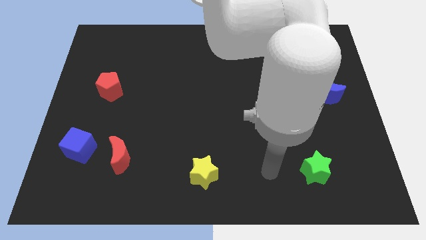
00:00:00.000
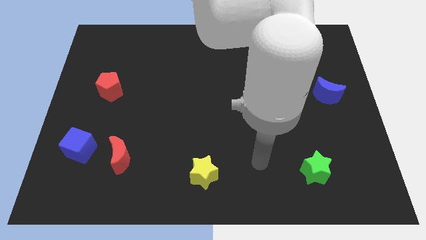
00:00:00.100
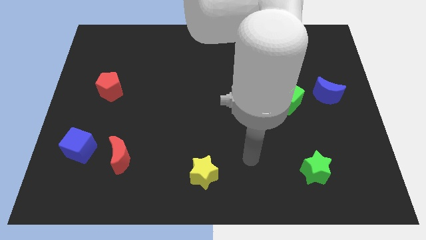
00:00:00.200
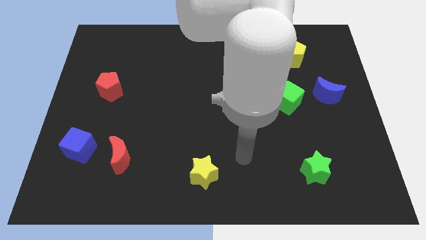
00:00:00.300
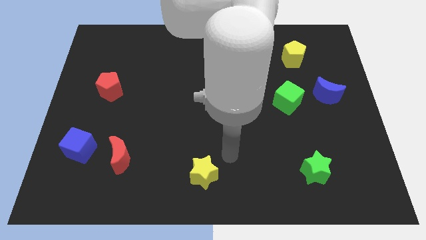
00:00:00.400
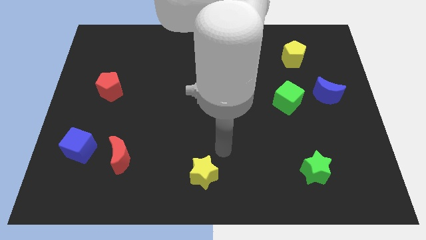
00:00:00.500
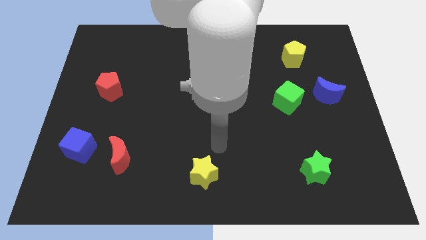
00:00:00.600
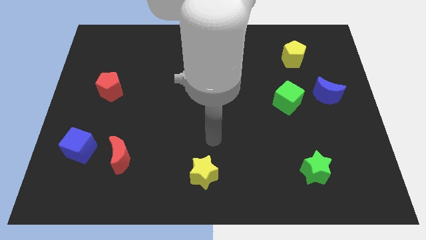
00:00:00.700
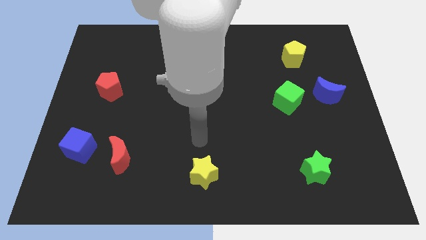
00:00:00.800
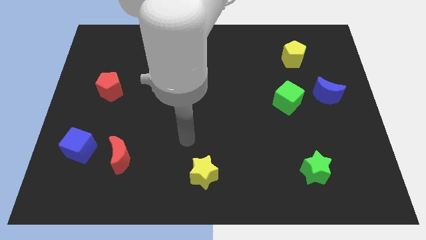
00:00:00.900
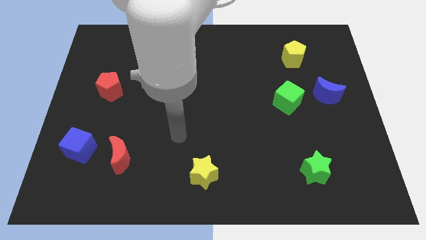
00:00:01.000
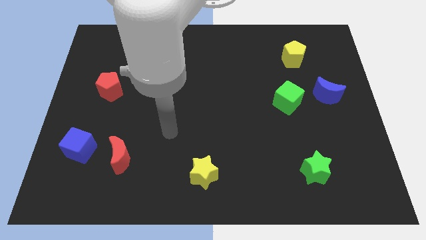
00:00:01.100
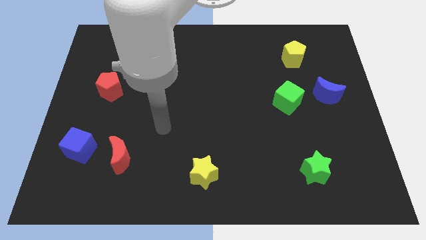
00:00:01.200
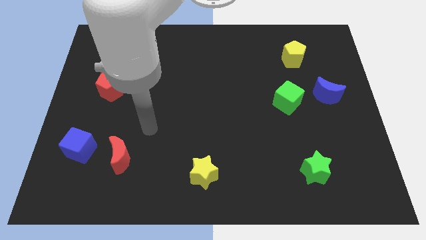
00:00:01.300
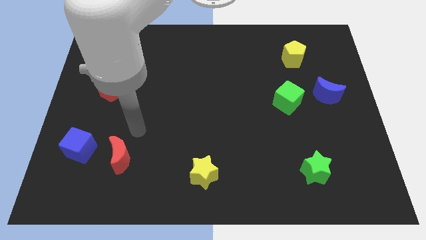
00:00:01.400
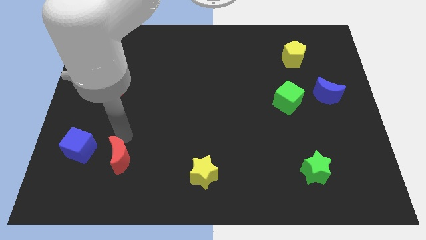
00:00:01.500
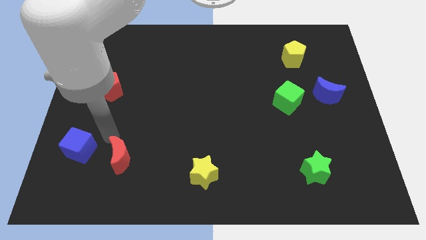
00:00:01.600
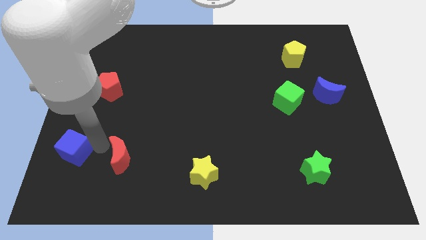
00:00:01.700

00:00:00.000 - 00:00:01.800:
separate the red moon from the blue cube

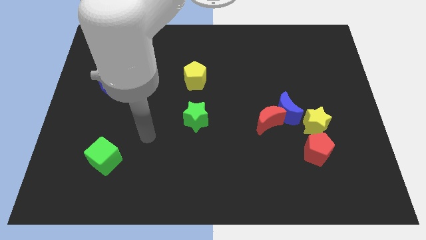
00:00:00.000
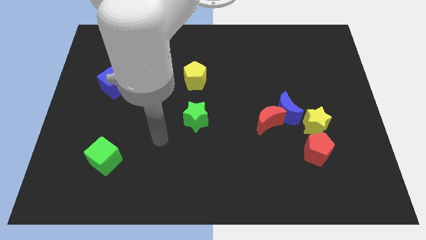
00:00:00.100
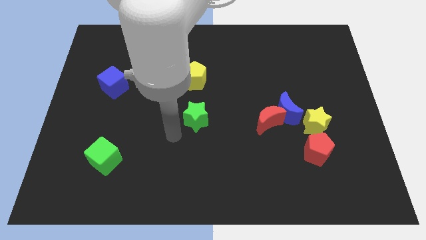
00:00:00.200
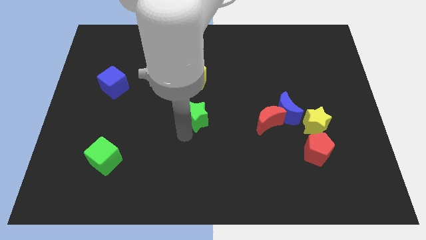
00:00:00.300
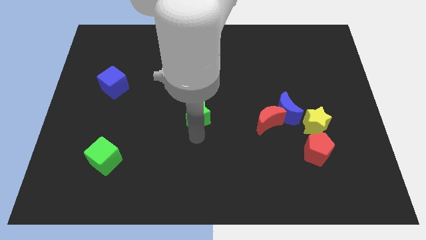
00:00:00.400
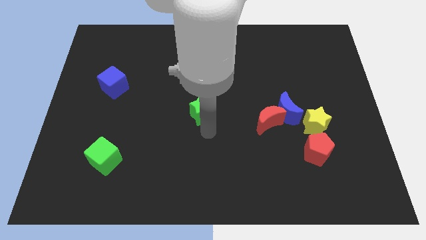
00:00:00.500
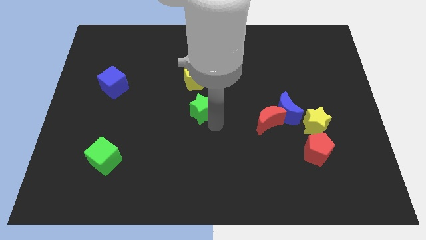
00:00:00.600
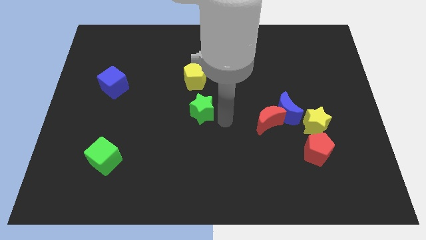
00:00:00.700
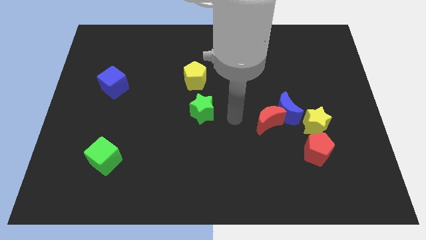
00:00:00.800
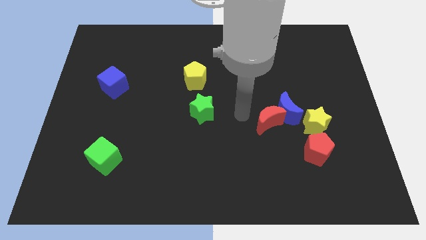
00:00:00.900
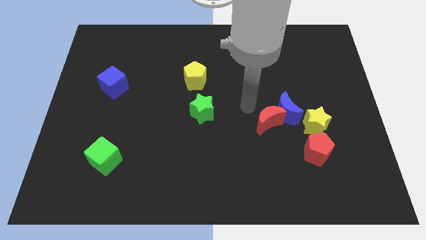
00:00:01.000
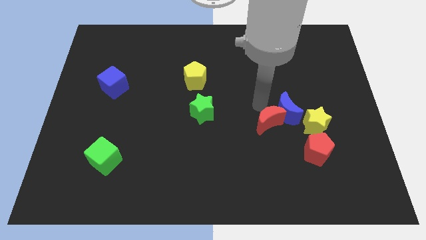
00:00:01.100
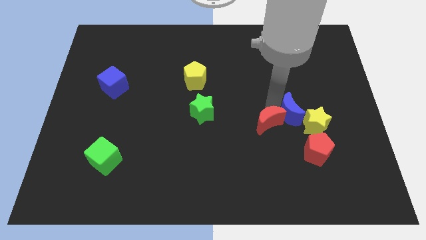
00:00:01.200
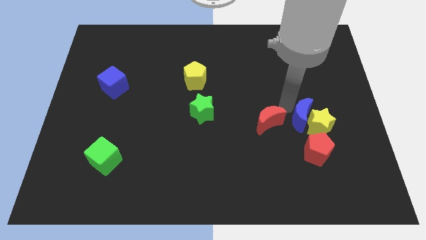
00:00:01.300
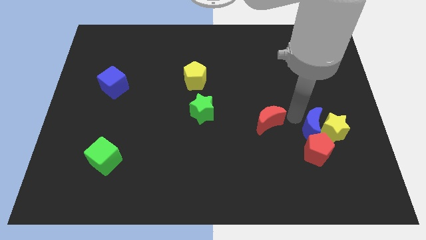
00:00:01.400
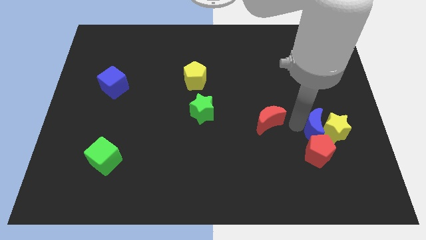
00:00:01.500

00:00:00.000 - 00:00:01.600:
move the red moon away from the blue moon

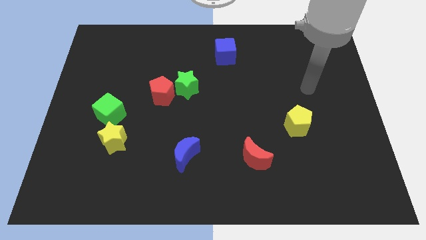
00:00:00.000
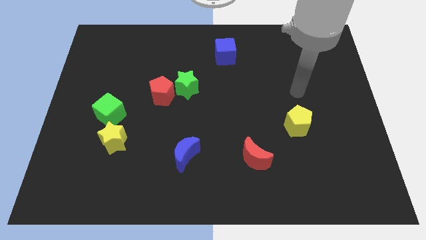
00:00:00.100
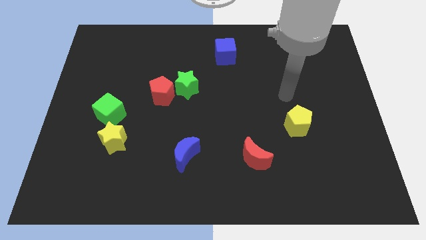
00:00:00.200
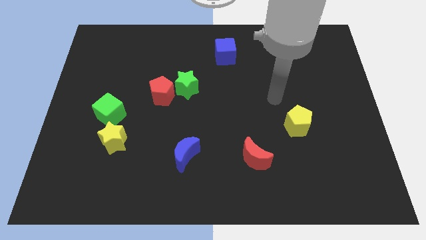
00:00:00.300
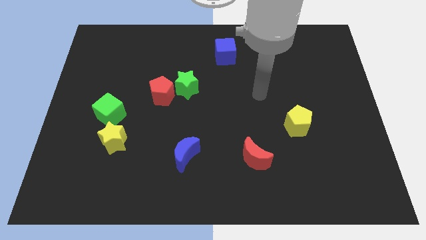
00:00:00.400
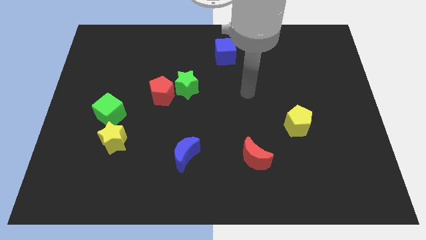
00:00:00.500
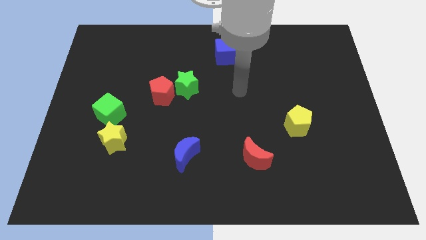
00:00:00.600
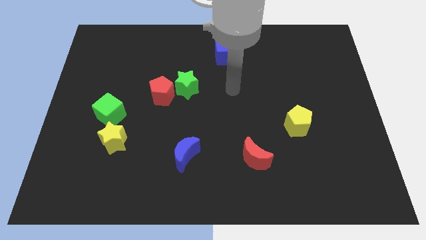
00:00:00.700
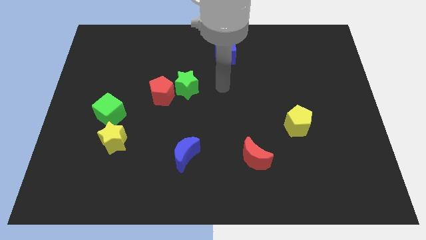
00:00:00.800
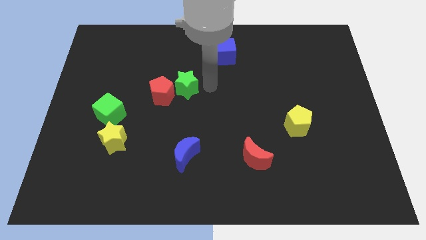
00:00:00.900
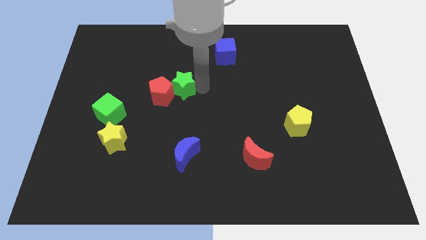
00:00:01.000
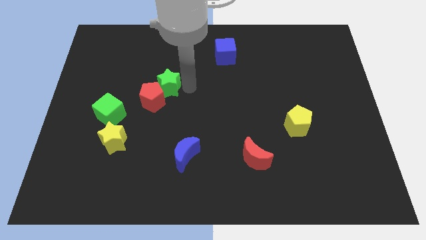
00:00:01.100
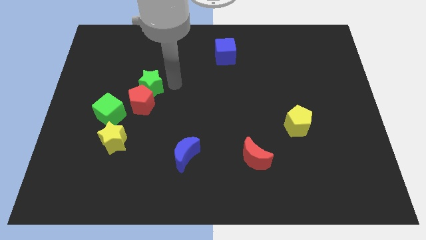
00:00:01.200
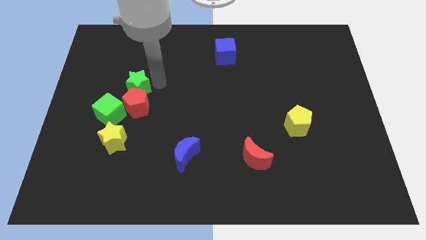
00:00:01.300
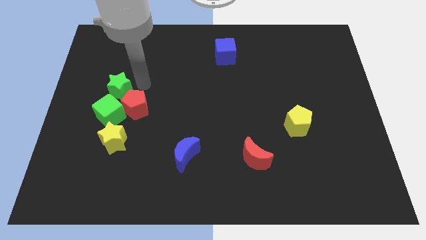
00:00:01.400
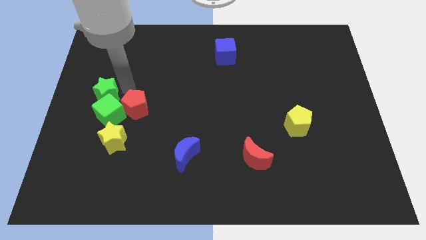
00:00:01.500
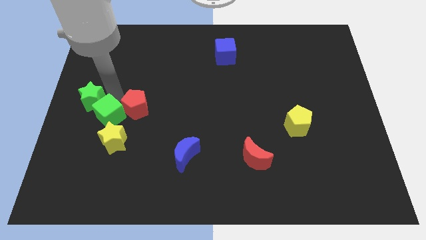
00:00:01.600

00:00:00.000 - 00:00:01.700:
pull the red pentagon apart from the green star

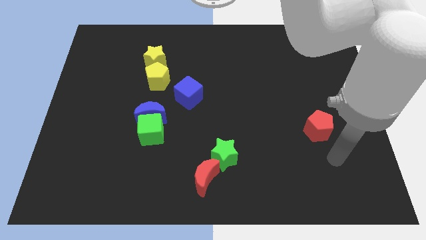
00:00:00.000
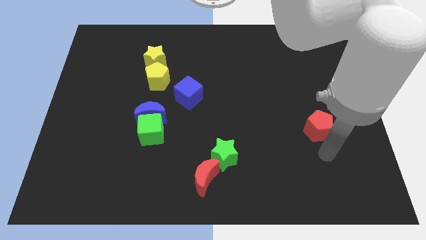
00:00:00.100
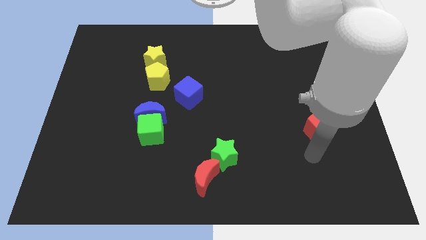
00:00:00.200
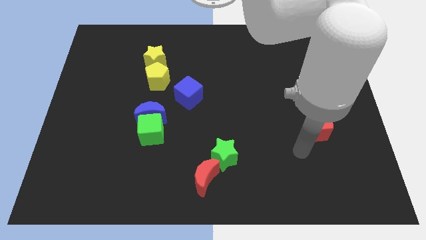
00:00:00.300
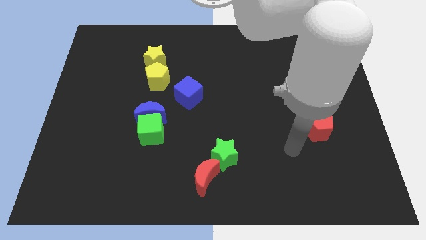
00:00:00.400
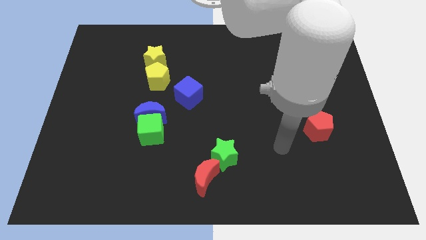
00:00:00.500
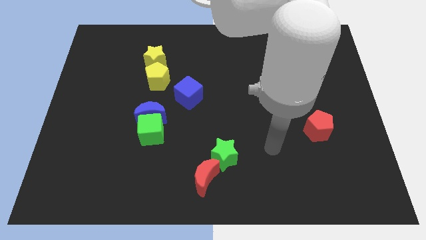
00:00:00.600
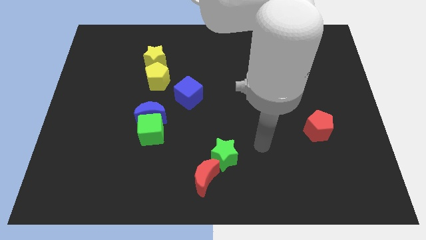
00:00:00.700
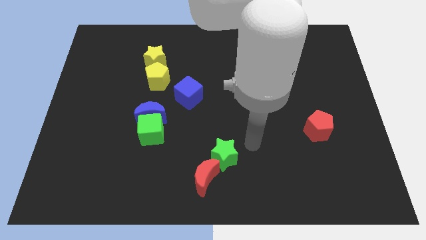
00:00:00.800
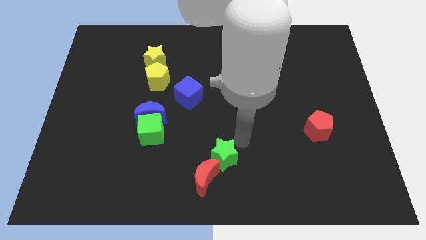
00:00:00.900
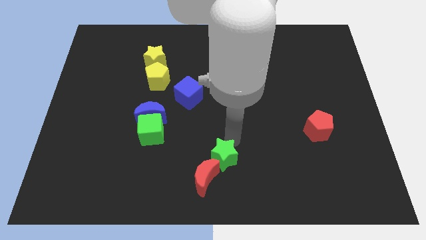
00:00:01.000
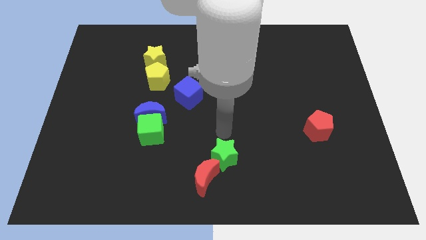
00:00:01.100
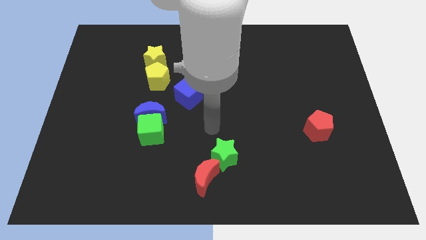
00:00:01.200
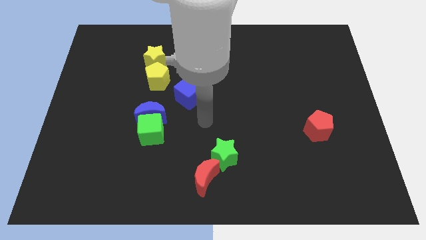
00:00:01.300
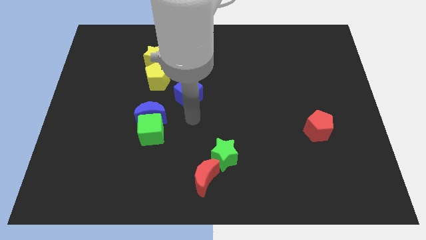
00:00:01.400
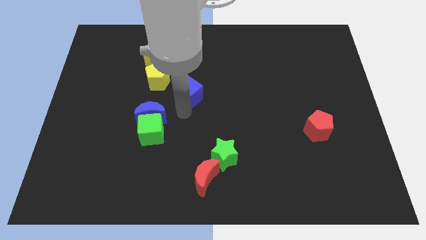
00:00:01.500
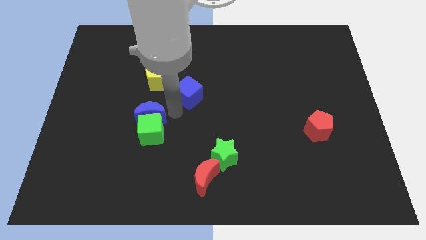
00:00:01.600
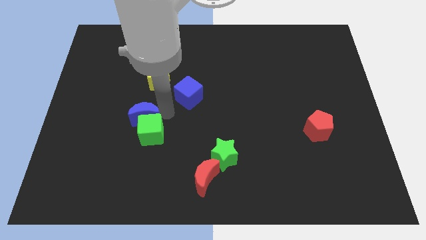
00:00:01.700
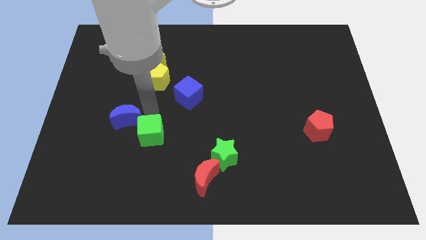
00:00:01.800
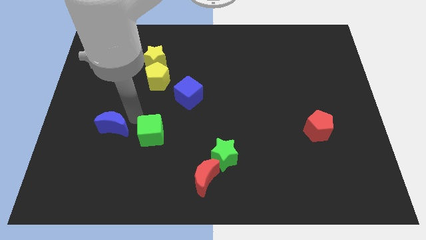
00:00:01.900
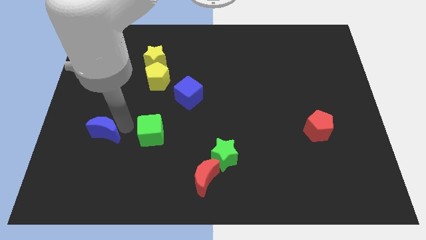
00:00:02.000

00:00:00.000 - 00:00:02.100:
separate the green cube from the blue moon

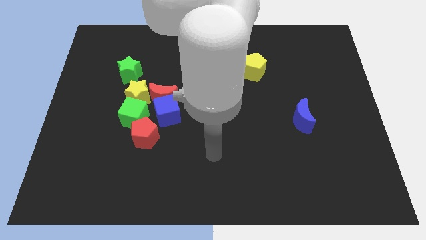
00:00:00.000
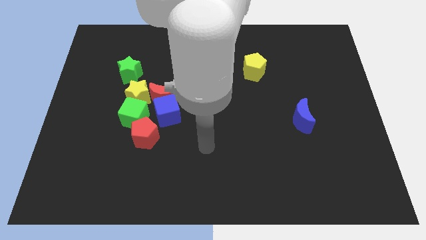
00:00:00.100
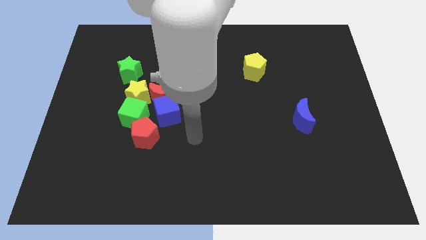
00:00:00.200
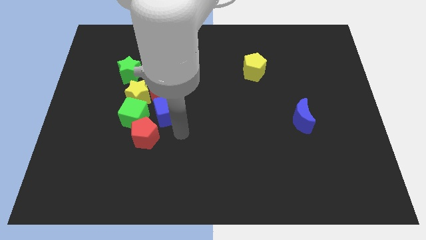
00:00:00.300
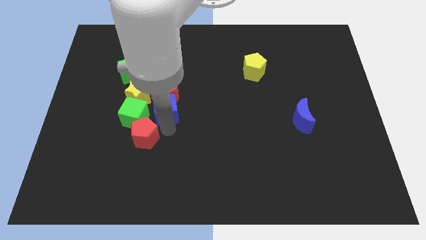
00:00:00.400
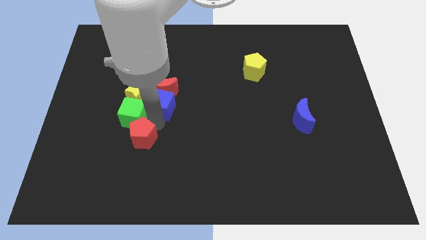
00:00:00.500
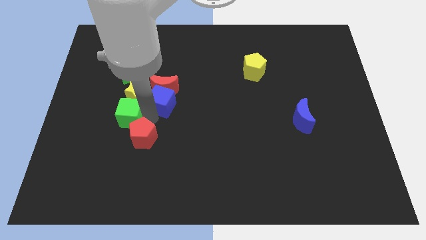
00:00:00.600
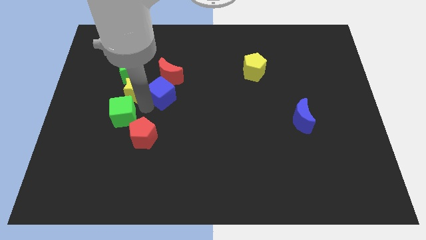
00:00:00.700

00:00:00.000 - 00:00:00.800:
move the red moon away from the blue cube, yellow star, and green cube

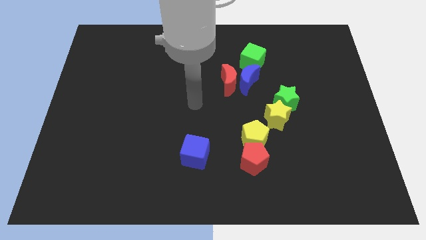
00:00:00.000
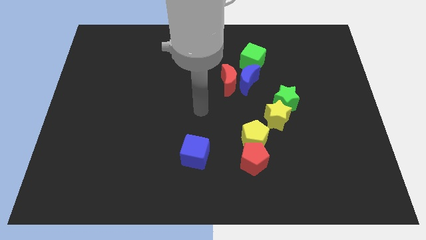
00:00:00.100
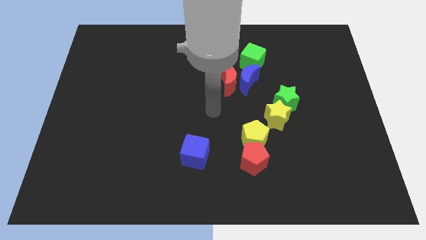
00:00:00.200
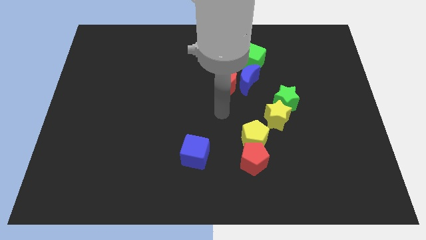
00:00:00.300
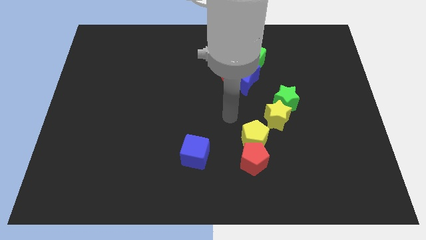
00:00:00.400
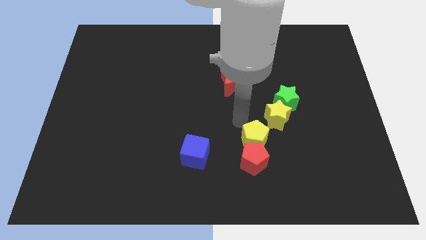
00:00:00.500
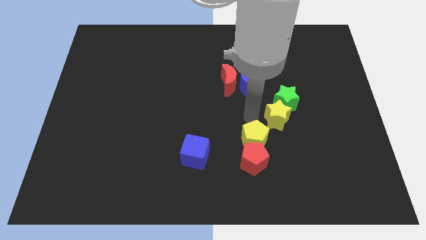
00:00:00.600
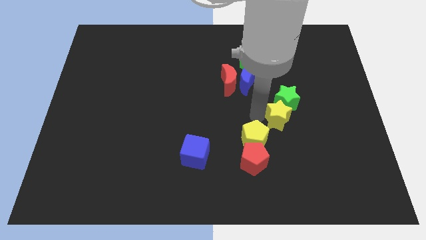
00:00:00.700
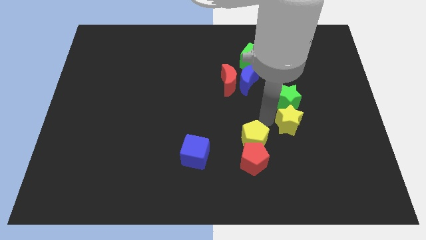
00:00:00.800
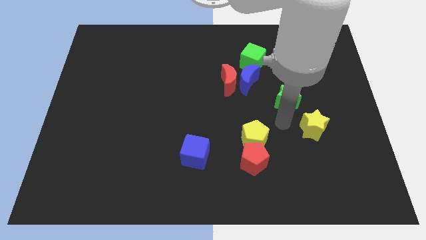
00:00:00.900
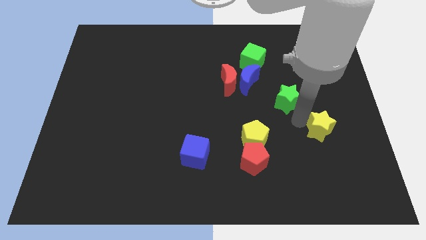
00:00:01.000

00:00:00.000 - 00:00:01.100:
separate the green star from the yellow star

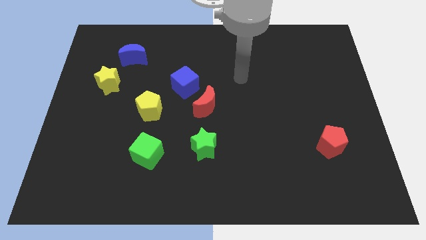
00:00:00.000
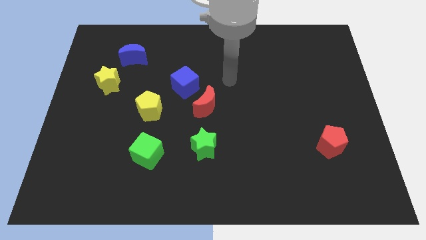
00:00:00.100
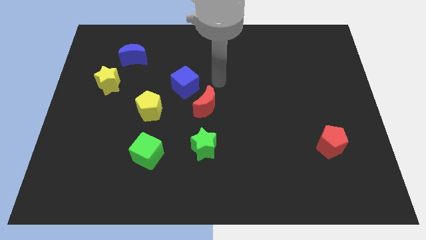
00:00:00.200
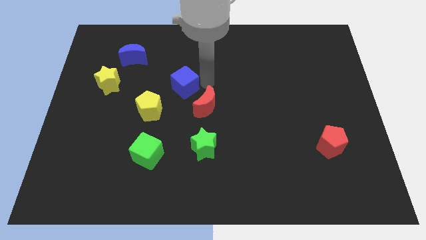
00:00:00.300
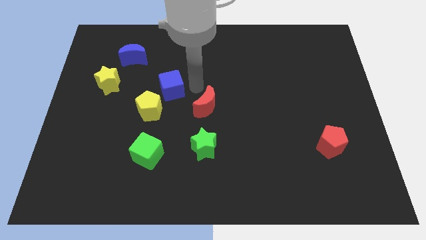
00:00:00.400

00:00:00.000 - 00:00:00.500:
move the red moon away from the blue cube
